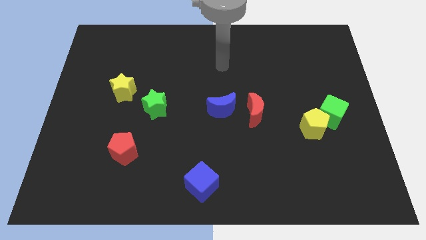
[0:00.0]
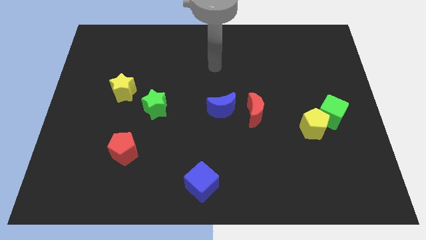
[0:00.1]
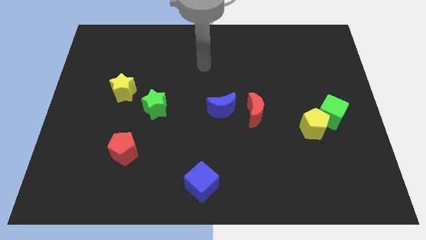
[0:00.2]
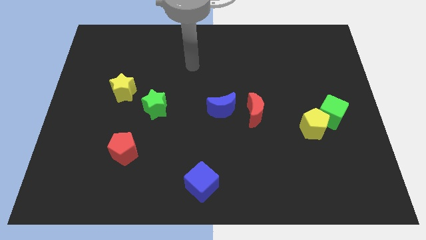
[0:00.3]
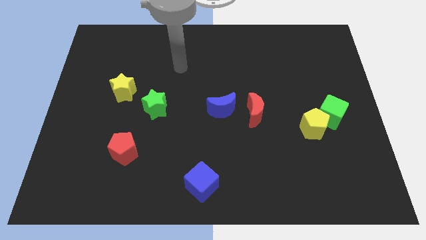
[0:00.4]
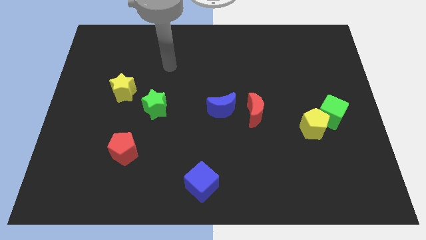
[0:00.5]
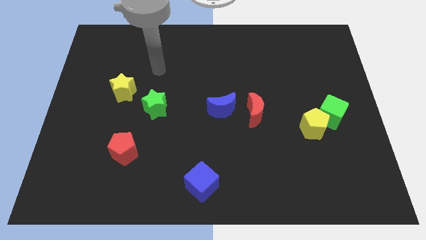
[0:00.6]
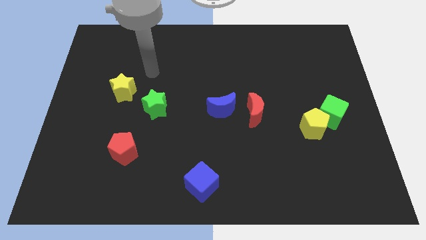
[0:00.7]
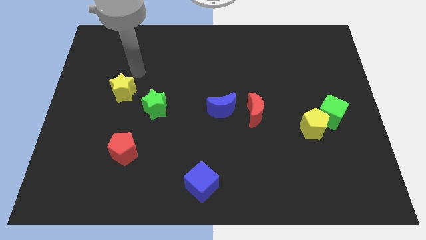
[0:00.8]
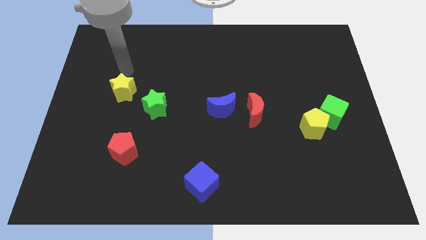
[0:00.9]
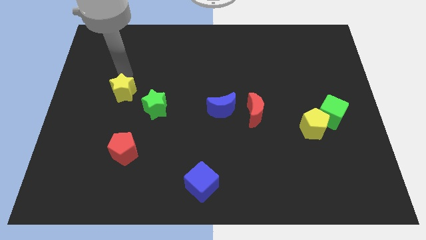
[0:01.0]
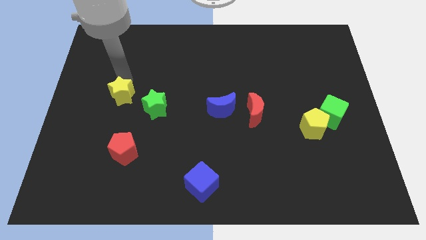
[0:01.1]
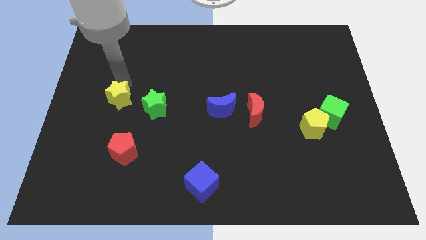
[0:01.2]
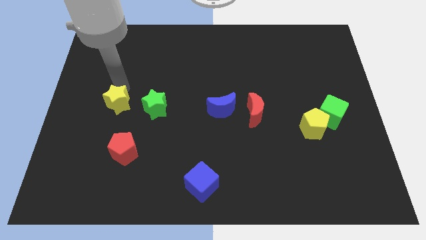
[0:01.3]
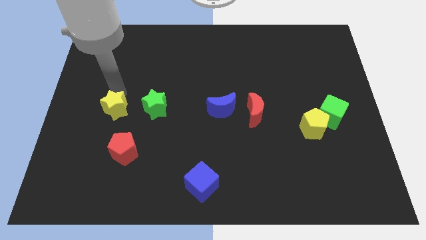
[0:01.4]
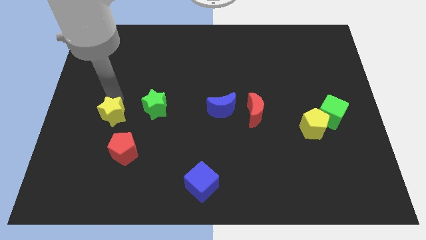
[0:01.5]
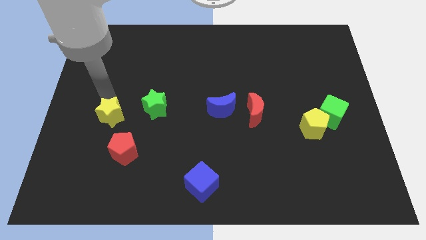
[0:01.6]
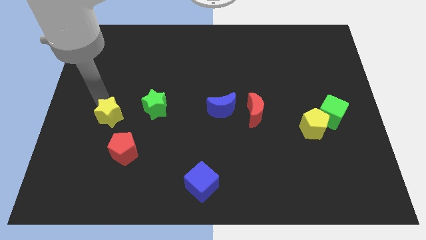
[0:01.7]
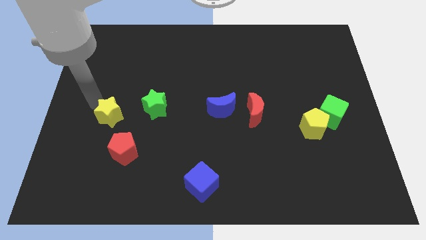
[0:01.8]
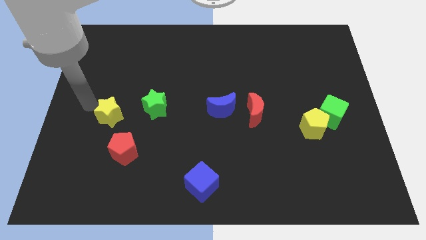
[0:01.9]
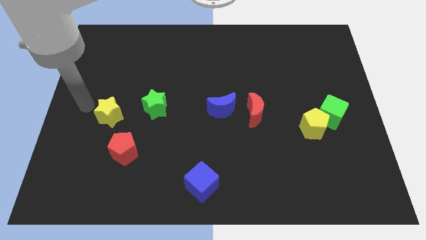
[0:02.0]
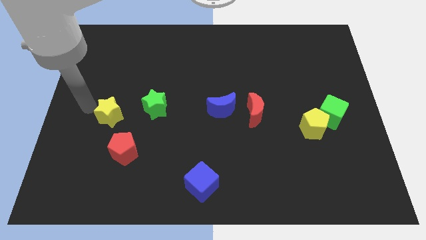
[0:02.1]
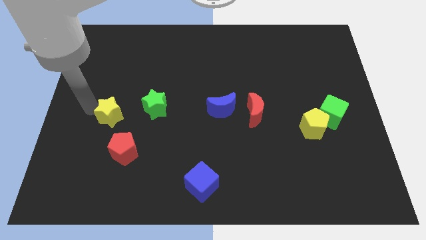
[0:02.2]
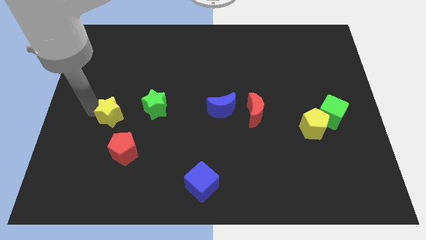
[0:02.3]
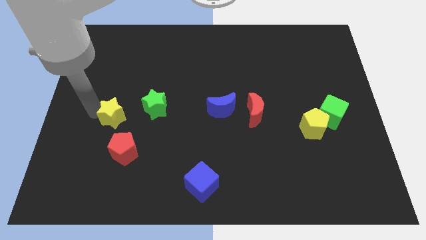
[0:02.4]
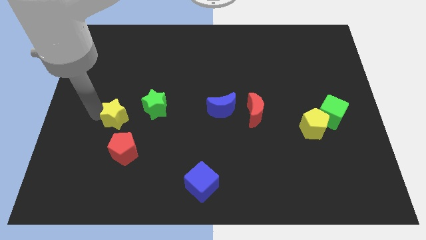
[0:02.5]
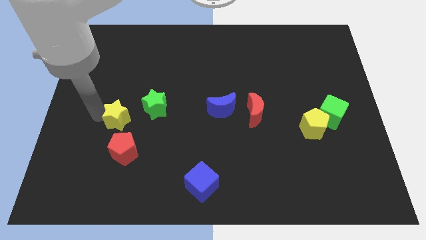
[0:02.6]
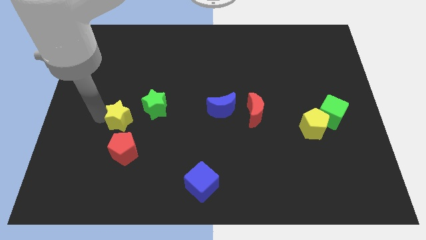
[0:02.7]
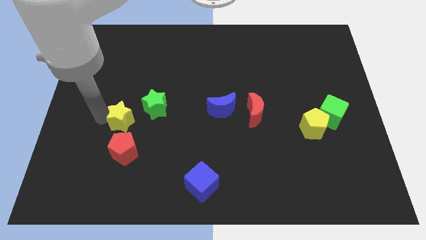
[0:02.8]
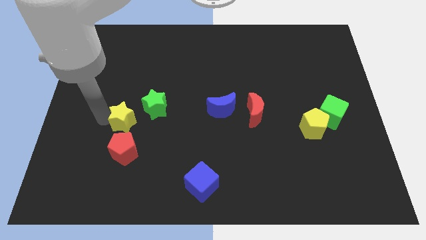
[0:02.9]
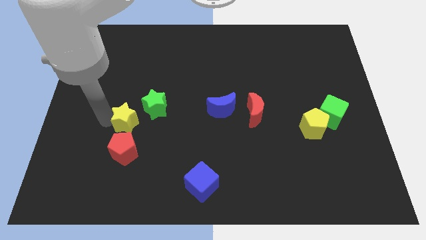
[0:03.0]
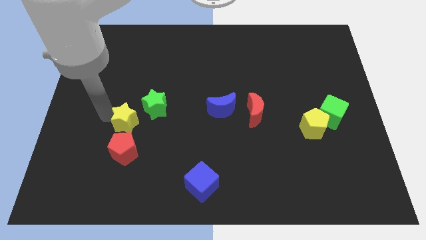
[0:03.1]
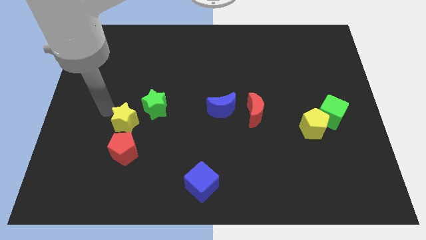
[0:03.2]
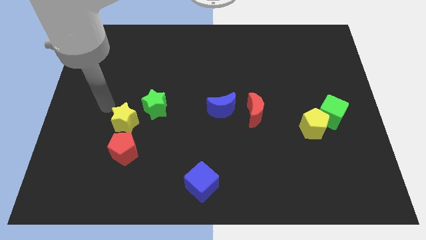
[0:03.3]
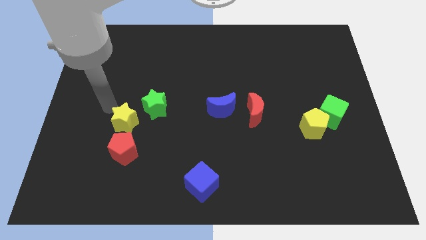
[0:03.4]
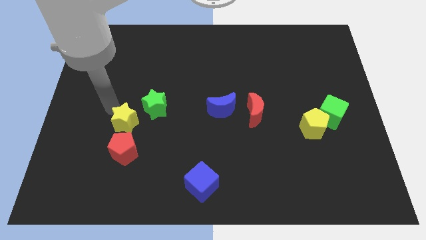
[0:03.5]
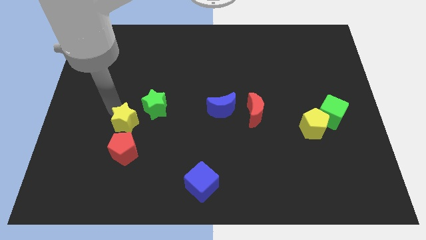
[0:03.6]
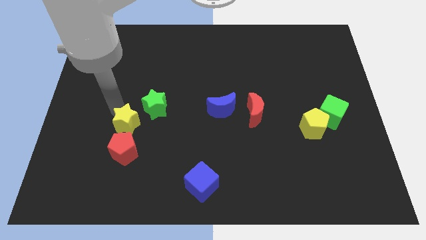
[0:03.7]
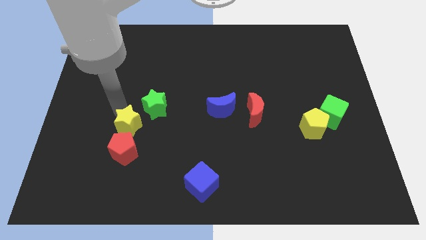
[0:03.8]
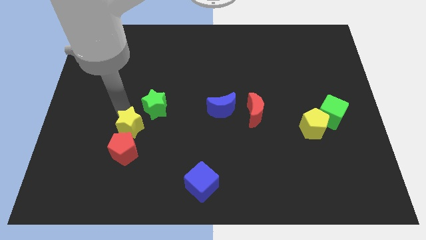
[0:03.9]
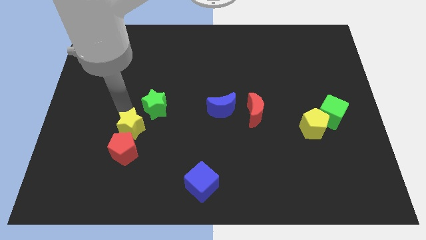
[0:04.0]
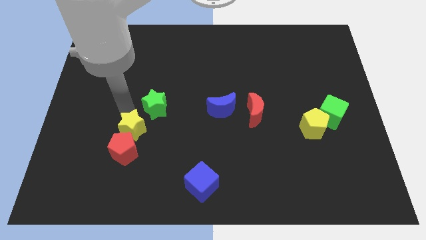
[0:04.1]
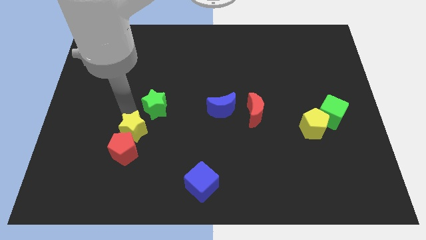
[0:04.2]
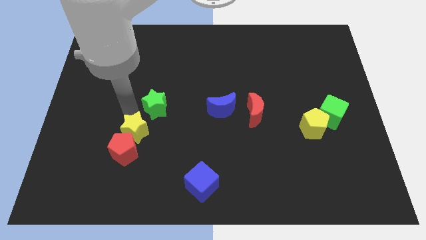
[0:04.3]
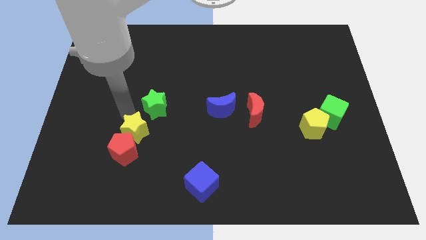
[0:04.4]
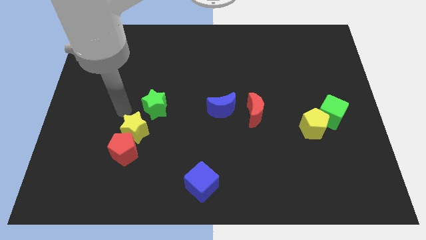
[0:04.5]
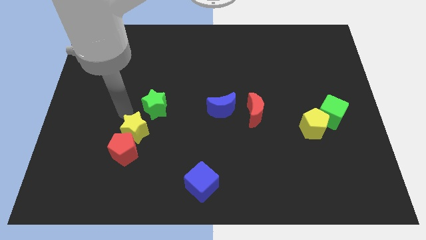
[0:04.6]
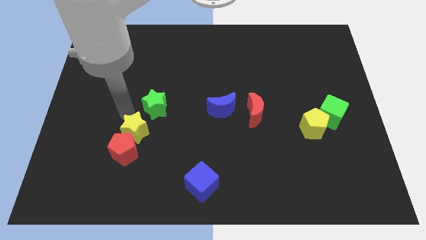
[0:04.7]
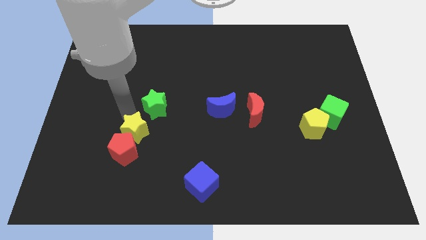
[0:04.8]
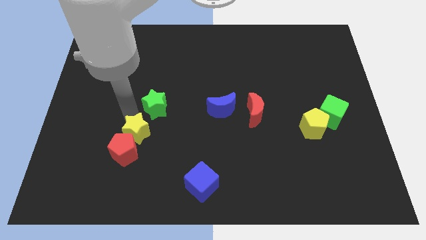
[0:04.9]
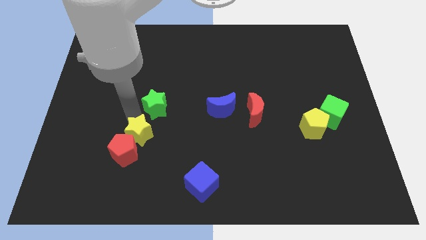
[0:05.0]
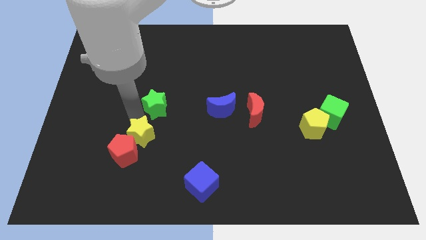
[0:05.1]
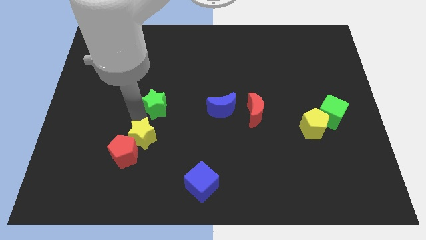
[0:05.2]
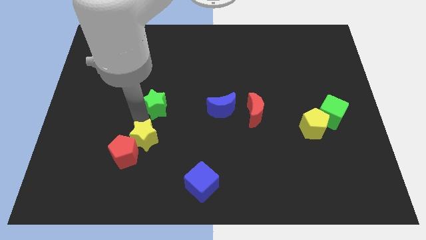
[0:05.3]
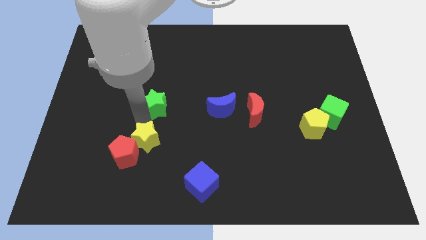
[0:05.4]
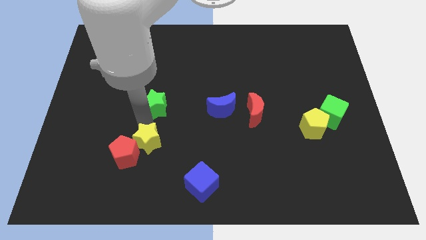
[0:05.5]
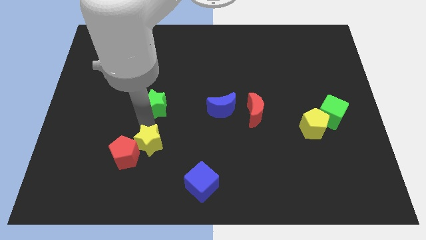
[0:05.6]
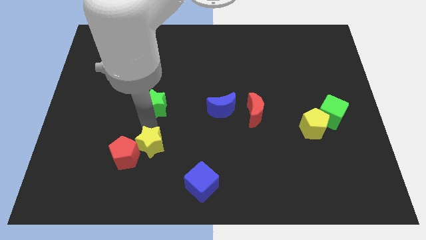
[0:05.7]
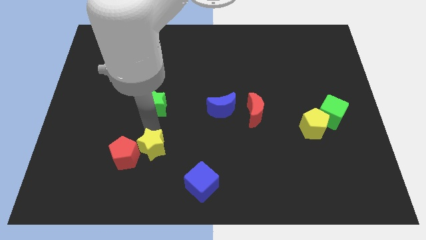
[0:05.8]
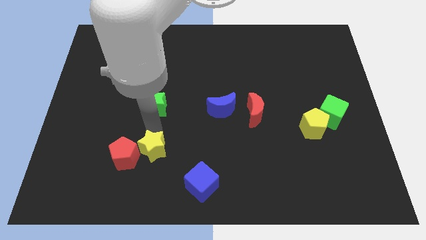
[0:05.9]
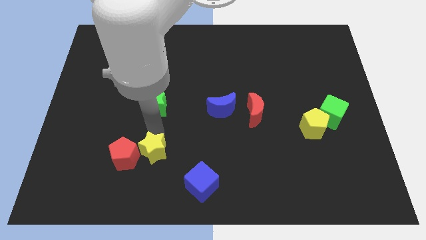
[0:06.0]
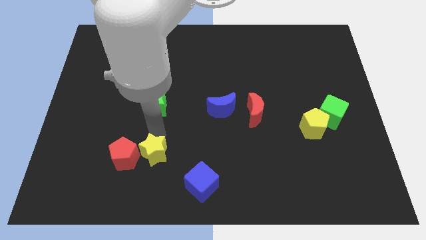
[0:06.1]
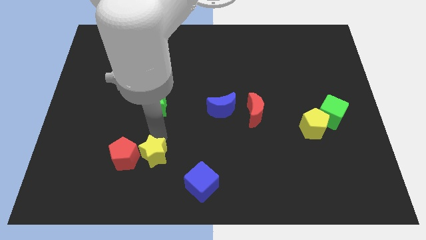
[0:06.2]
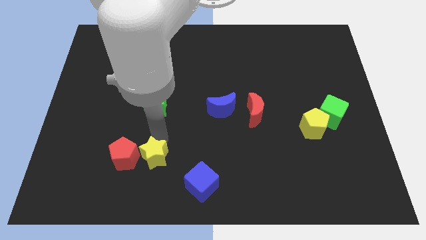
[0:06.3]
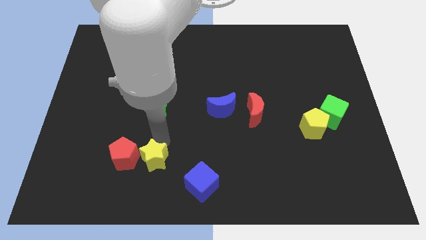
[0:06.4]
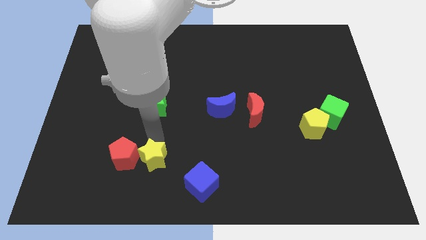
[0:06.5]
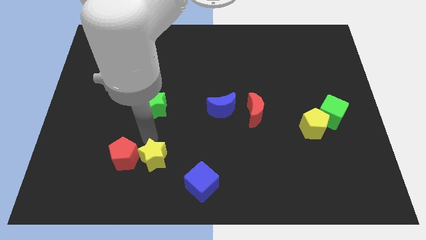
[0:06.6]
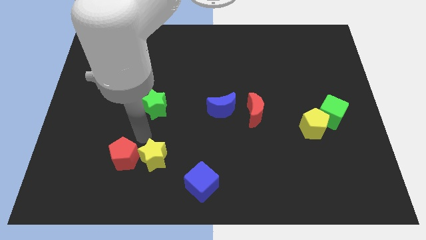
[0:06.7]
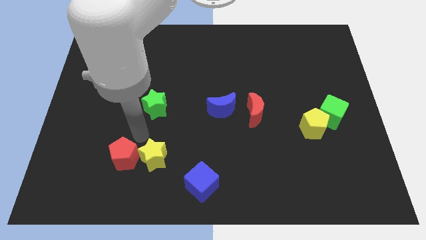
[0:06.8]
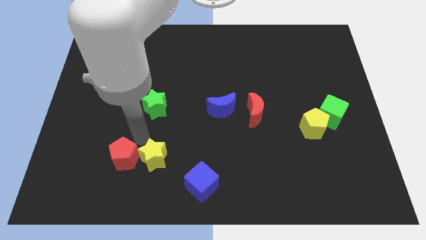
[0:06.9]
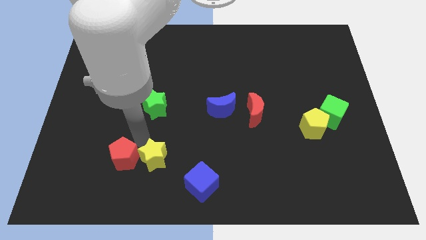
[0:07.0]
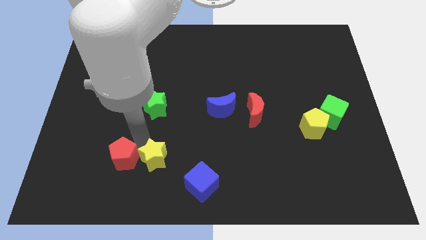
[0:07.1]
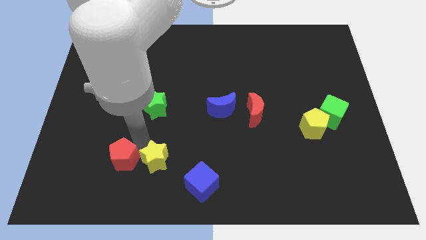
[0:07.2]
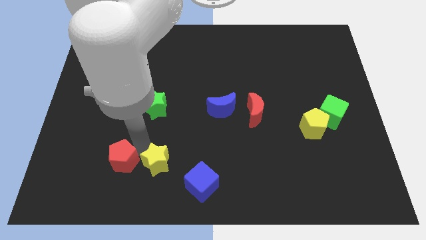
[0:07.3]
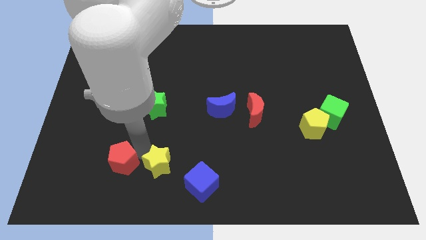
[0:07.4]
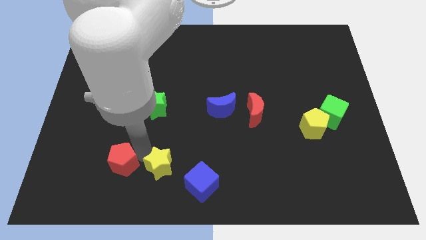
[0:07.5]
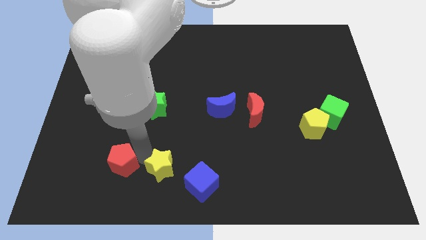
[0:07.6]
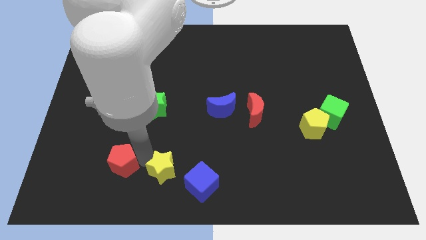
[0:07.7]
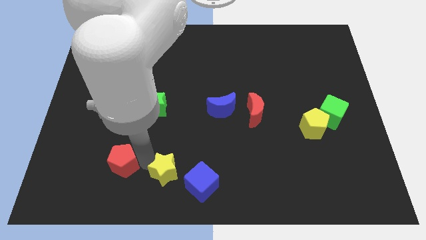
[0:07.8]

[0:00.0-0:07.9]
move the yellow star to the bottom side
